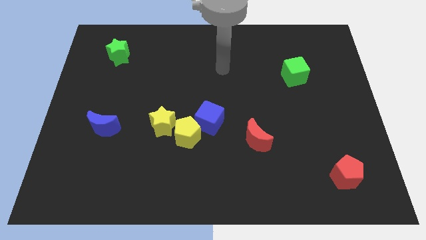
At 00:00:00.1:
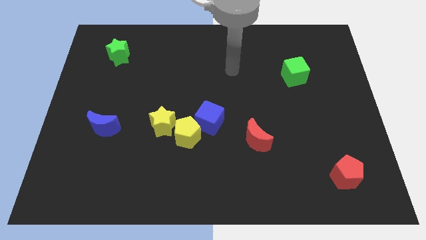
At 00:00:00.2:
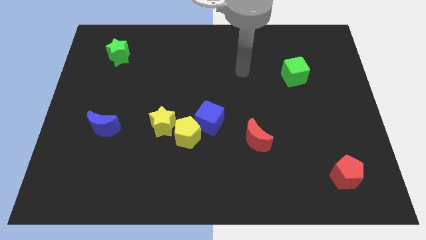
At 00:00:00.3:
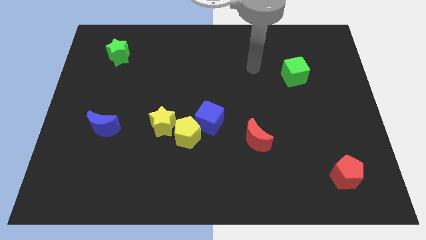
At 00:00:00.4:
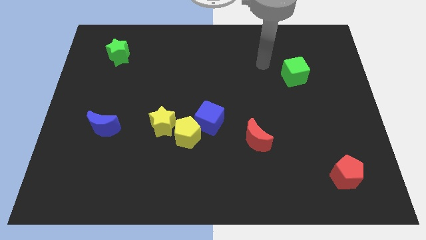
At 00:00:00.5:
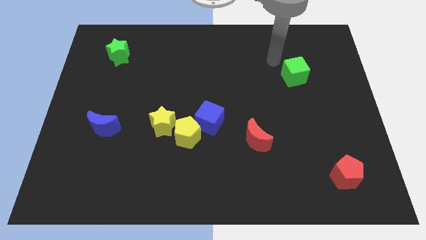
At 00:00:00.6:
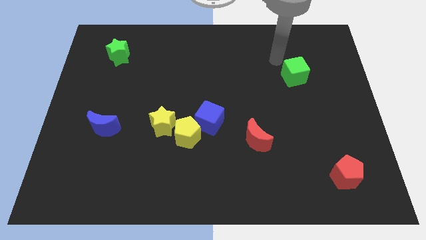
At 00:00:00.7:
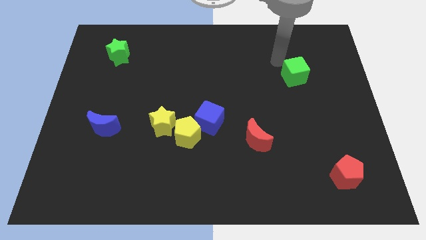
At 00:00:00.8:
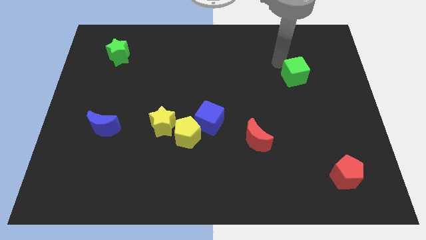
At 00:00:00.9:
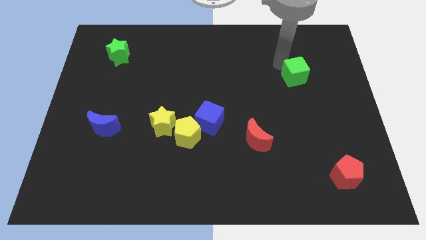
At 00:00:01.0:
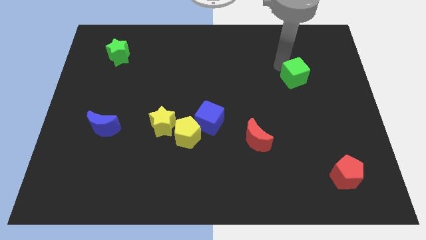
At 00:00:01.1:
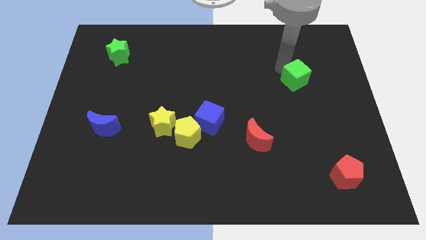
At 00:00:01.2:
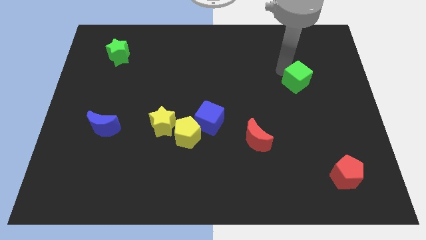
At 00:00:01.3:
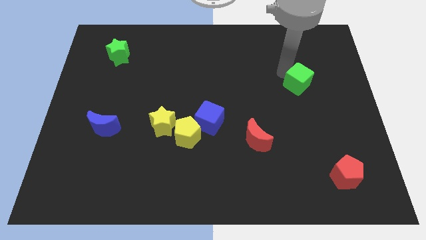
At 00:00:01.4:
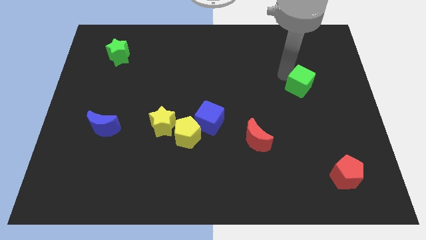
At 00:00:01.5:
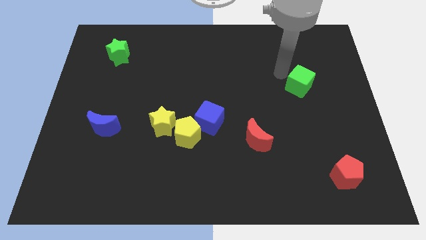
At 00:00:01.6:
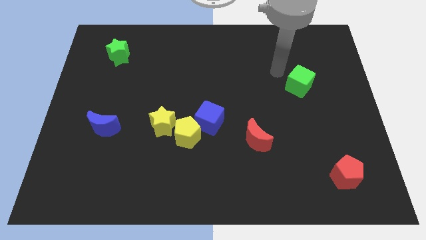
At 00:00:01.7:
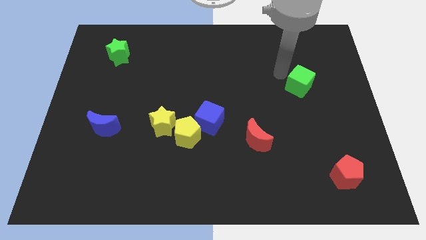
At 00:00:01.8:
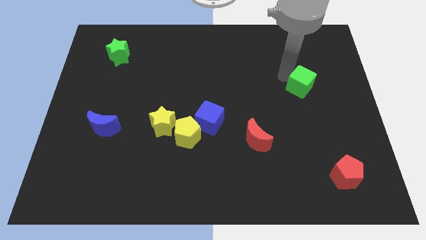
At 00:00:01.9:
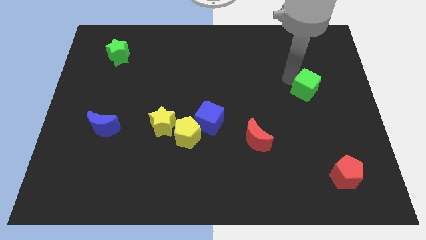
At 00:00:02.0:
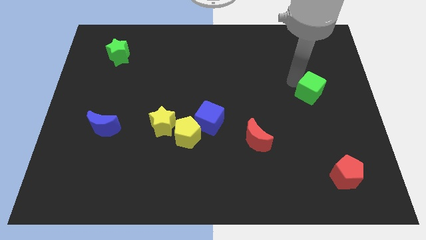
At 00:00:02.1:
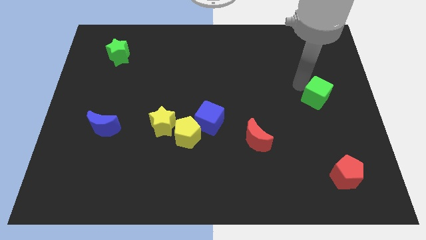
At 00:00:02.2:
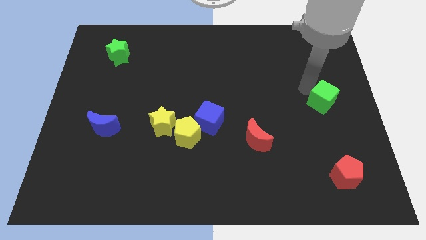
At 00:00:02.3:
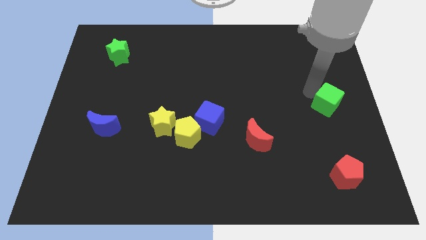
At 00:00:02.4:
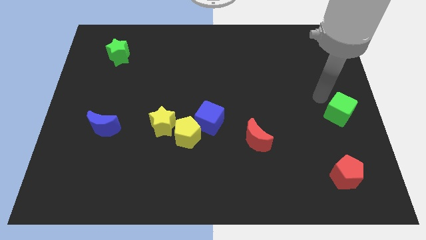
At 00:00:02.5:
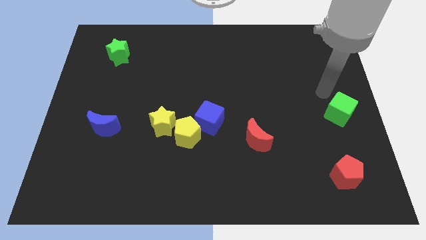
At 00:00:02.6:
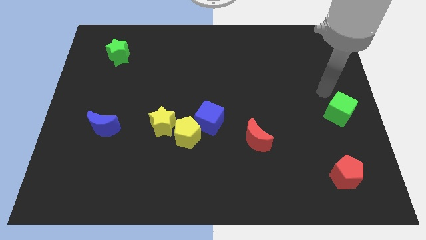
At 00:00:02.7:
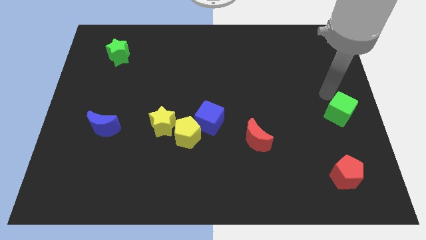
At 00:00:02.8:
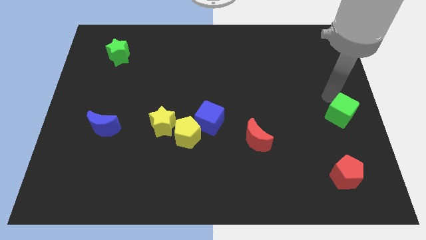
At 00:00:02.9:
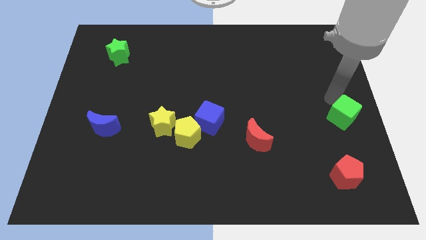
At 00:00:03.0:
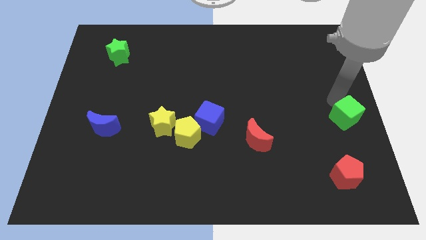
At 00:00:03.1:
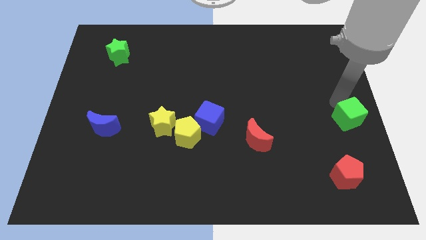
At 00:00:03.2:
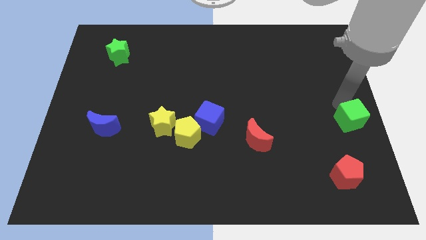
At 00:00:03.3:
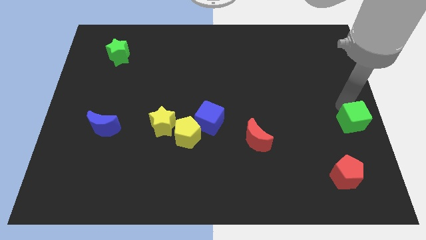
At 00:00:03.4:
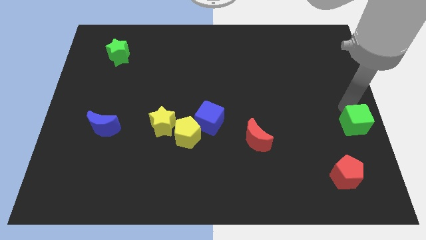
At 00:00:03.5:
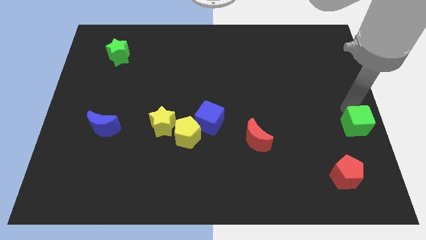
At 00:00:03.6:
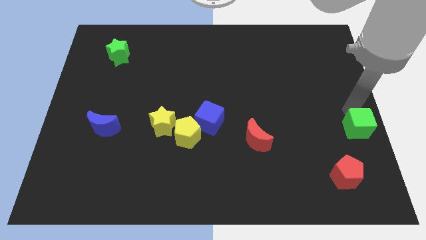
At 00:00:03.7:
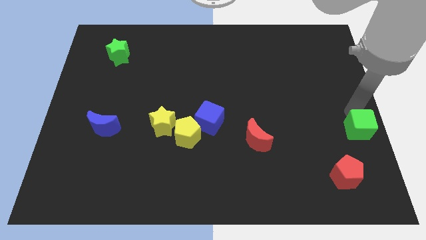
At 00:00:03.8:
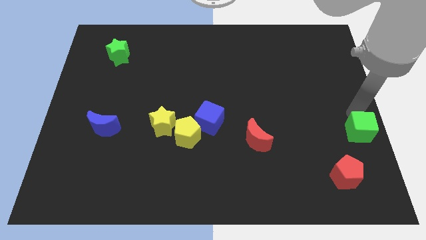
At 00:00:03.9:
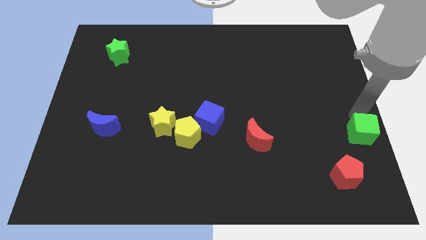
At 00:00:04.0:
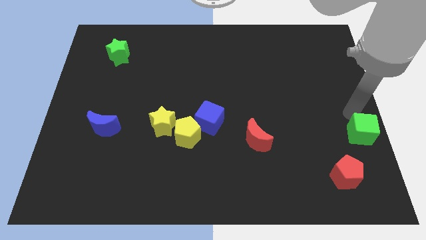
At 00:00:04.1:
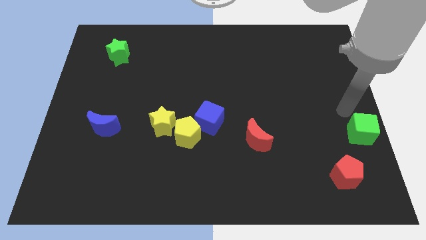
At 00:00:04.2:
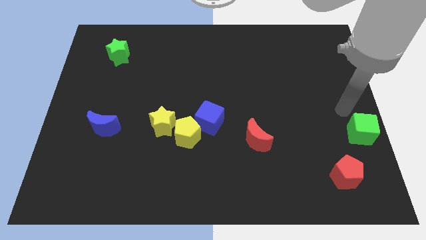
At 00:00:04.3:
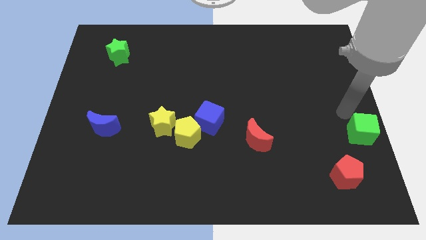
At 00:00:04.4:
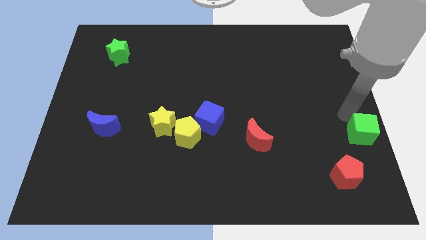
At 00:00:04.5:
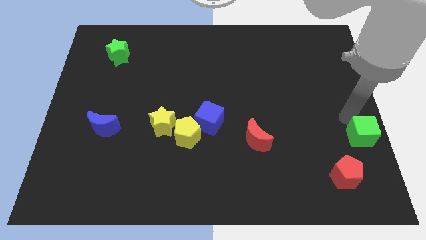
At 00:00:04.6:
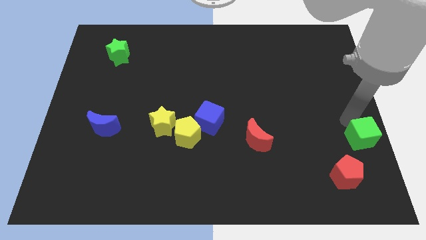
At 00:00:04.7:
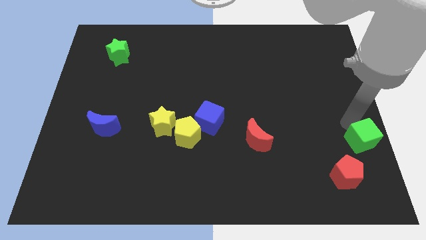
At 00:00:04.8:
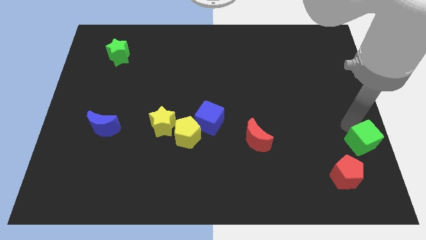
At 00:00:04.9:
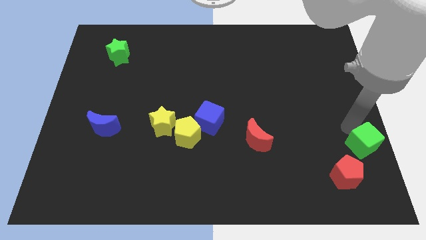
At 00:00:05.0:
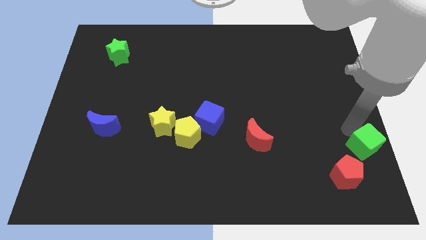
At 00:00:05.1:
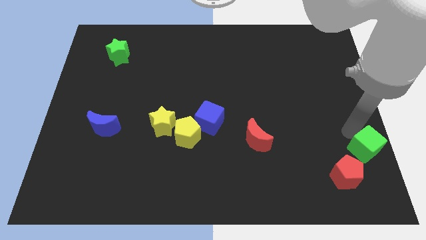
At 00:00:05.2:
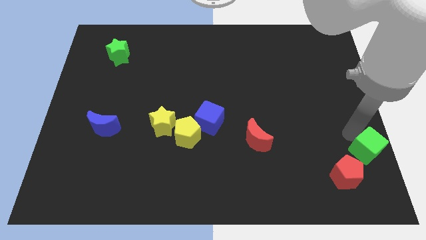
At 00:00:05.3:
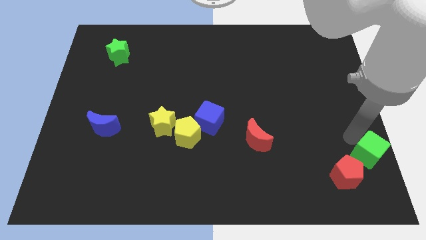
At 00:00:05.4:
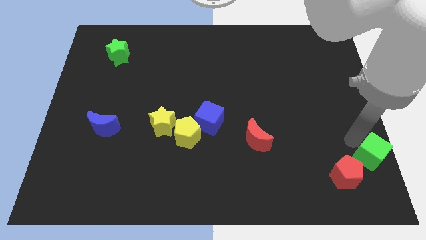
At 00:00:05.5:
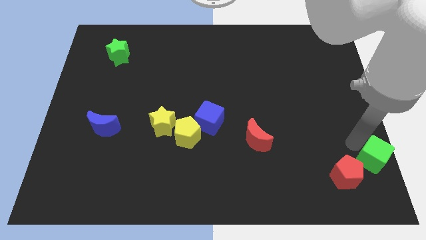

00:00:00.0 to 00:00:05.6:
put the green cube to the bottom right of the board
